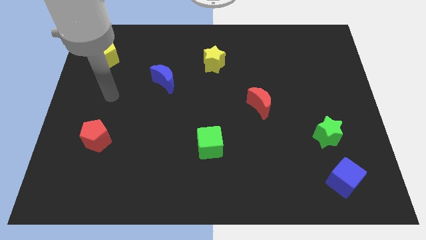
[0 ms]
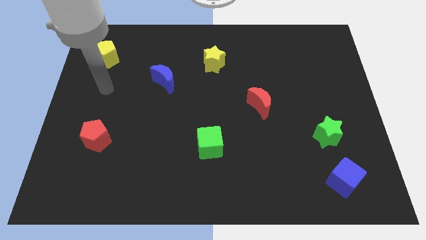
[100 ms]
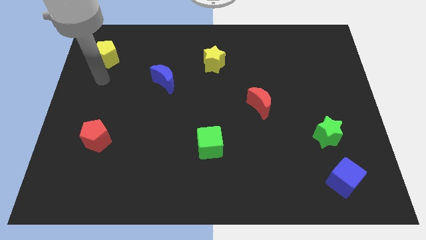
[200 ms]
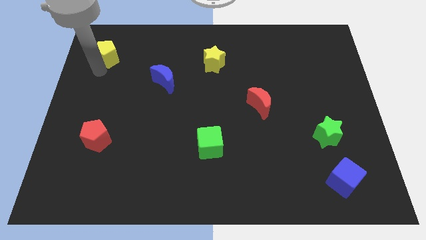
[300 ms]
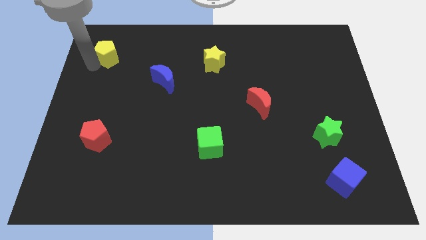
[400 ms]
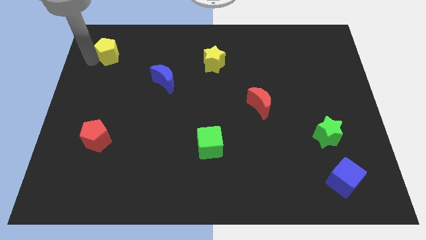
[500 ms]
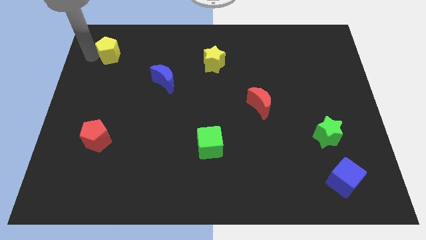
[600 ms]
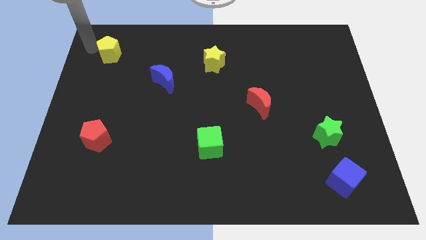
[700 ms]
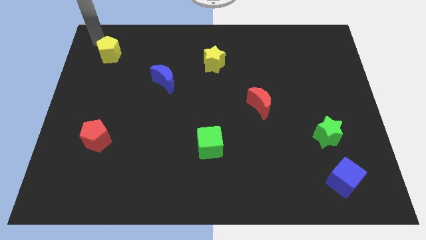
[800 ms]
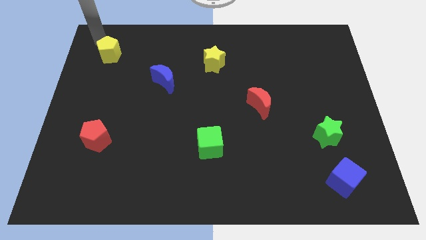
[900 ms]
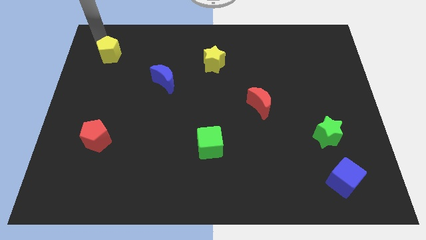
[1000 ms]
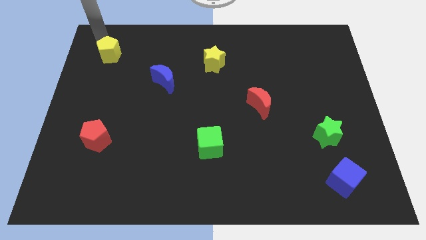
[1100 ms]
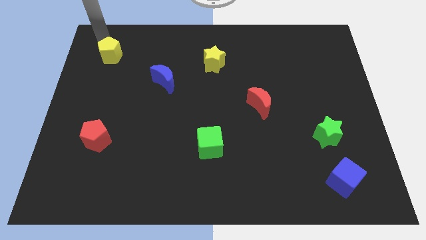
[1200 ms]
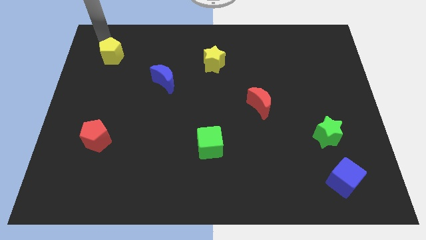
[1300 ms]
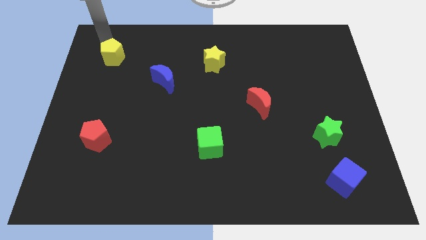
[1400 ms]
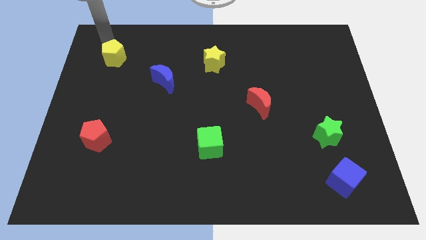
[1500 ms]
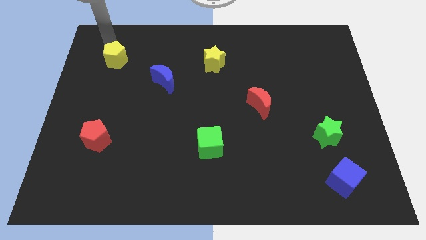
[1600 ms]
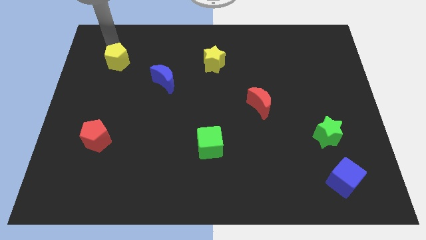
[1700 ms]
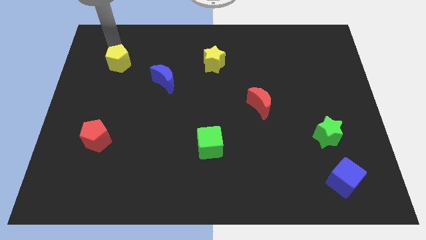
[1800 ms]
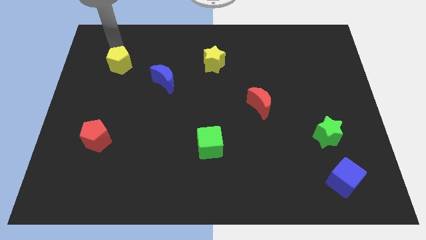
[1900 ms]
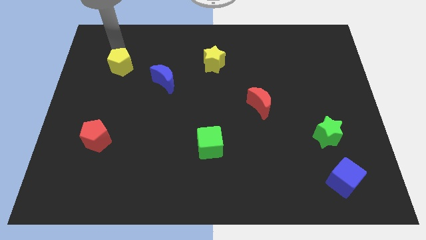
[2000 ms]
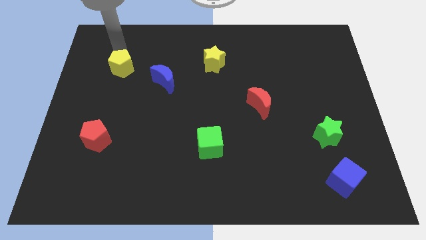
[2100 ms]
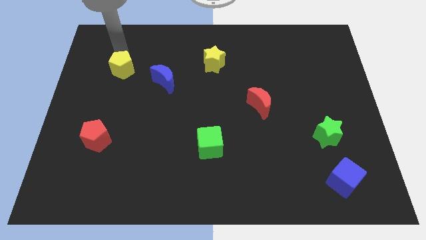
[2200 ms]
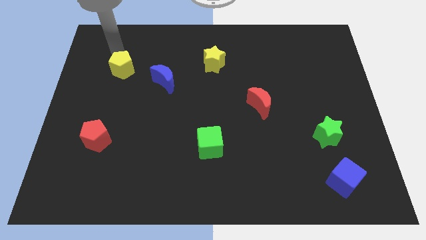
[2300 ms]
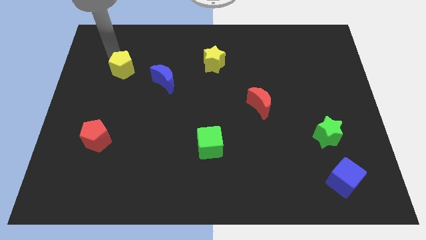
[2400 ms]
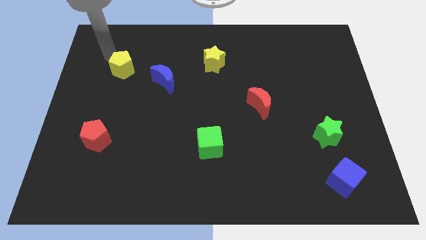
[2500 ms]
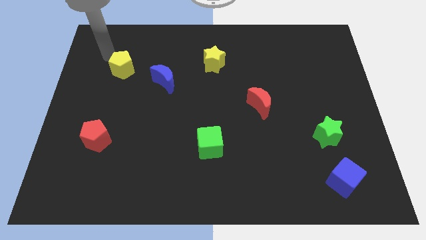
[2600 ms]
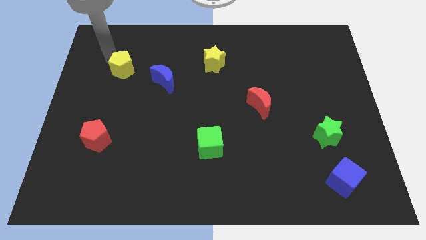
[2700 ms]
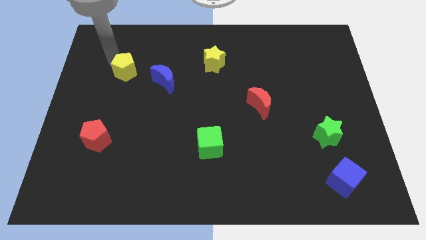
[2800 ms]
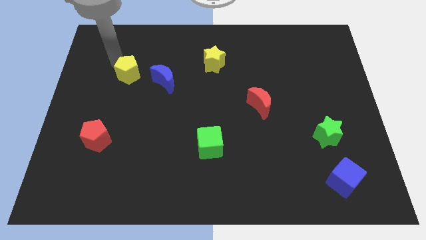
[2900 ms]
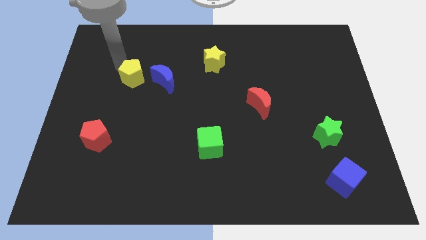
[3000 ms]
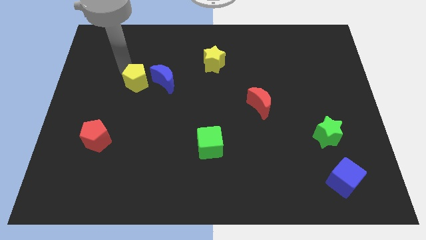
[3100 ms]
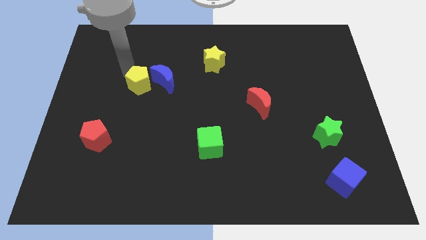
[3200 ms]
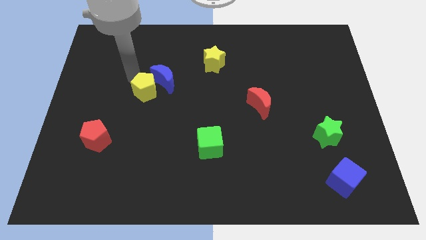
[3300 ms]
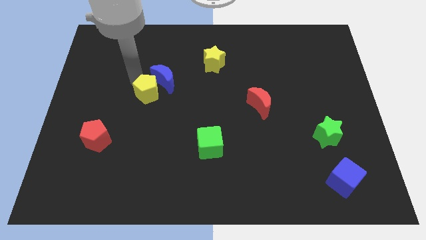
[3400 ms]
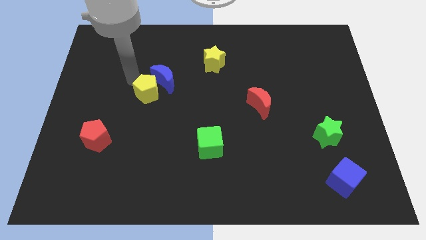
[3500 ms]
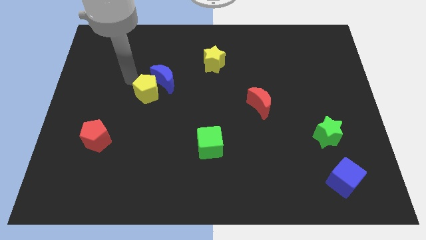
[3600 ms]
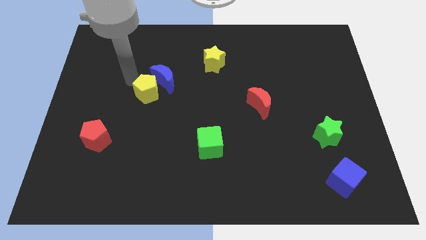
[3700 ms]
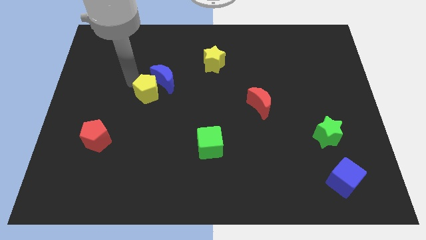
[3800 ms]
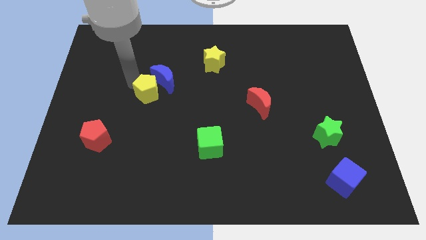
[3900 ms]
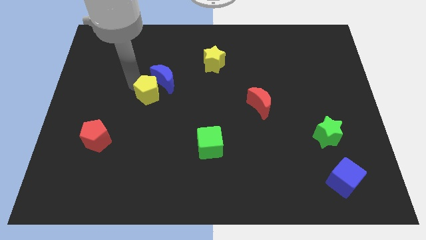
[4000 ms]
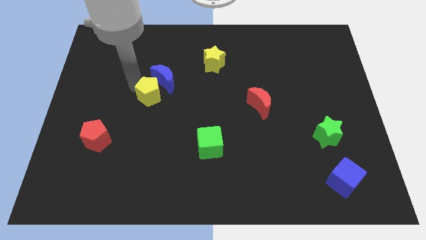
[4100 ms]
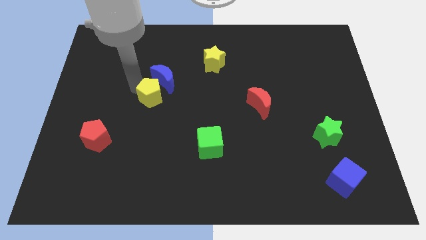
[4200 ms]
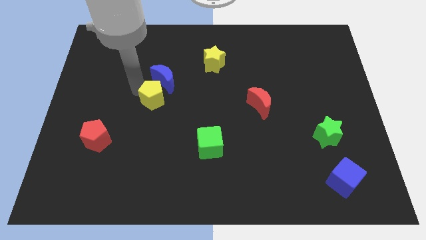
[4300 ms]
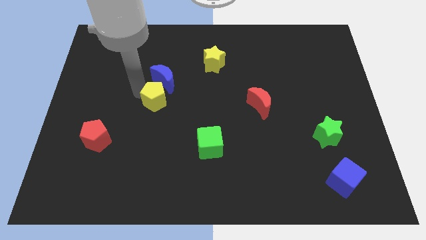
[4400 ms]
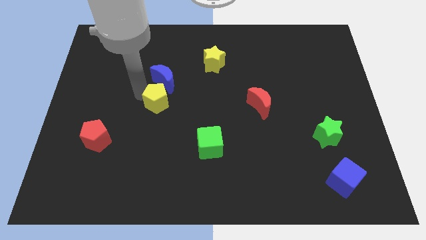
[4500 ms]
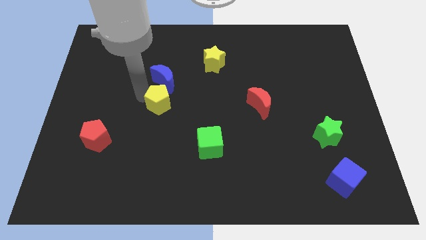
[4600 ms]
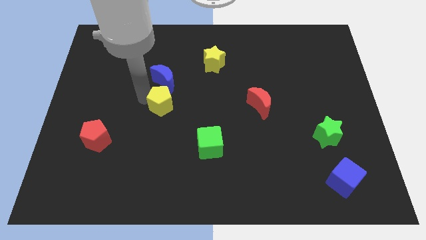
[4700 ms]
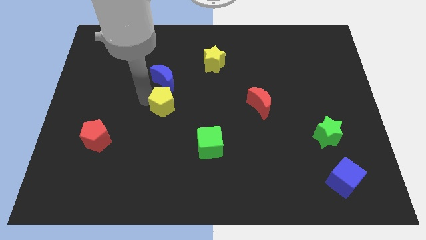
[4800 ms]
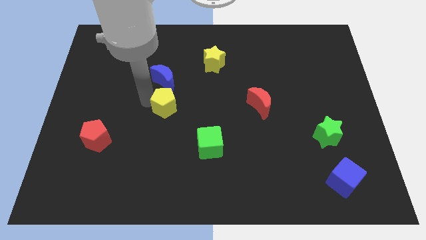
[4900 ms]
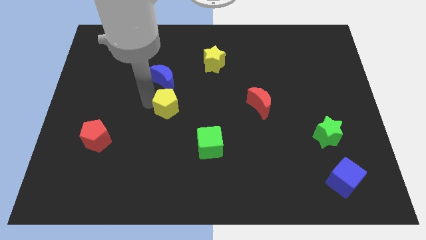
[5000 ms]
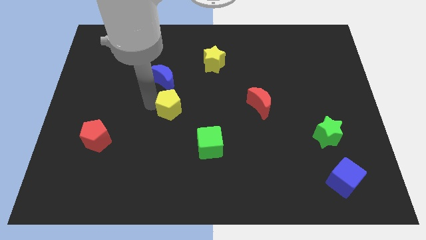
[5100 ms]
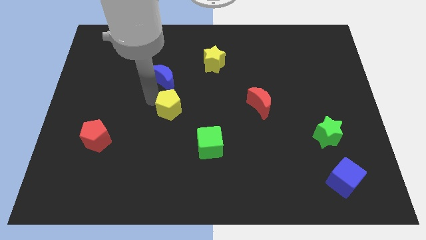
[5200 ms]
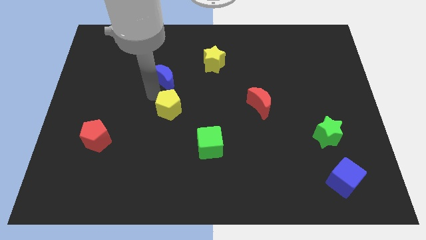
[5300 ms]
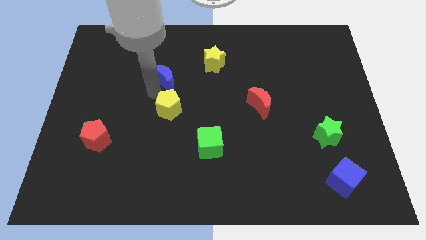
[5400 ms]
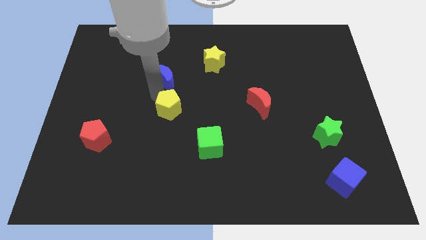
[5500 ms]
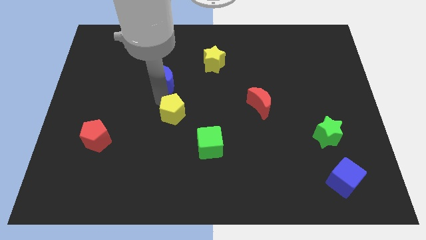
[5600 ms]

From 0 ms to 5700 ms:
put the yellow pentagon to the top left side of the green cube

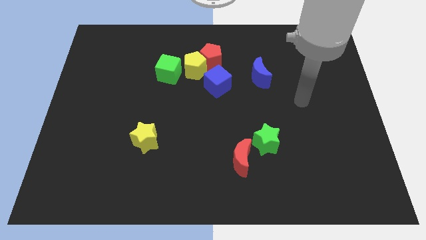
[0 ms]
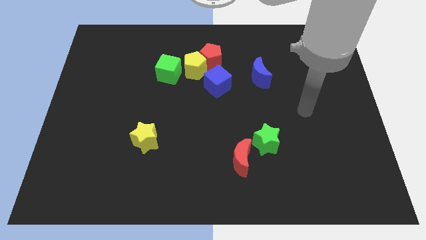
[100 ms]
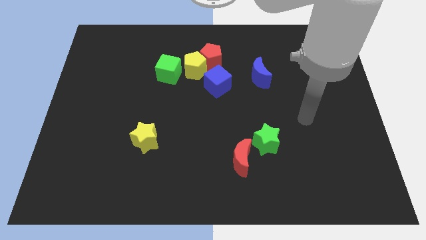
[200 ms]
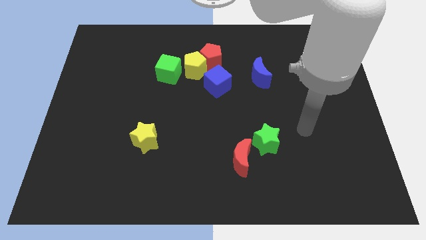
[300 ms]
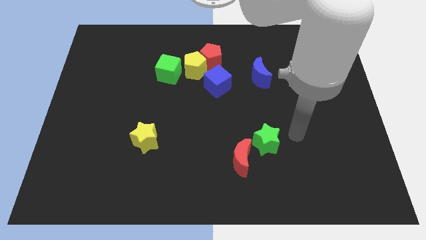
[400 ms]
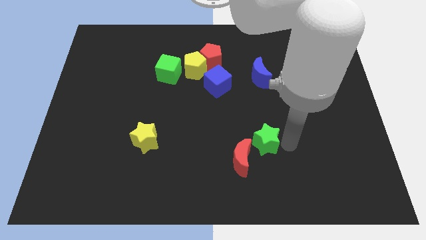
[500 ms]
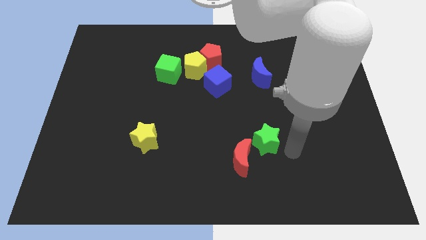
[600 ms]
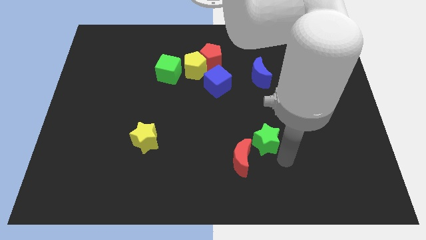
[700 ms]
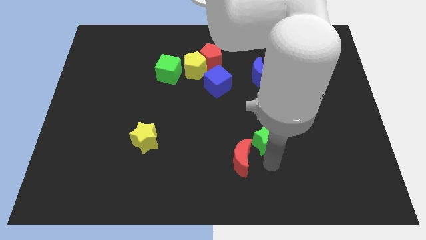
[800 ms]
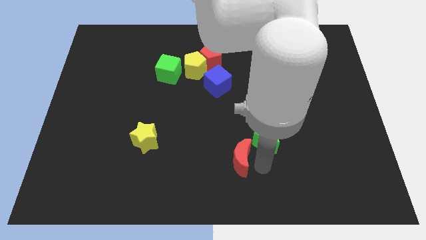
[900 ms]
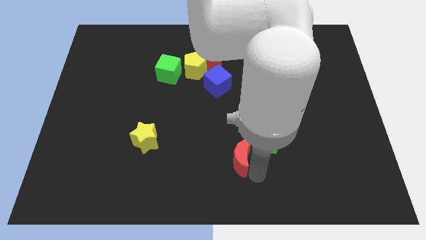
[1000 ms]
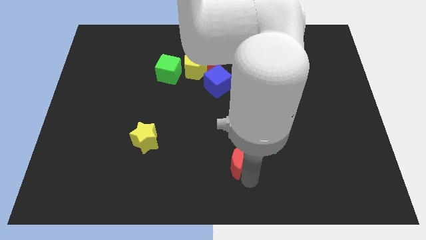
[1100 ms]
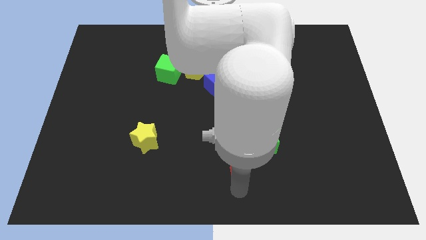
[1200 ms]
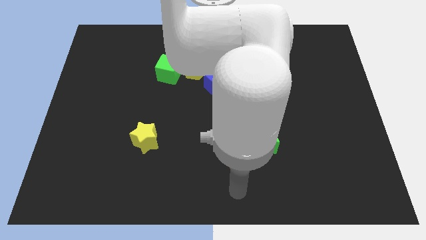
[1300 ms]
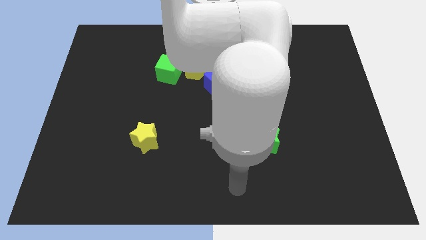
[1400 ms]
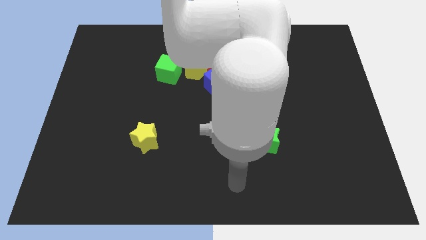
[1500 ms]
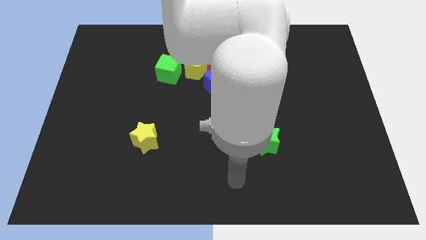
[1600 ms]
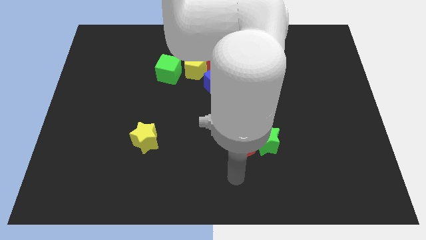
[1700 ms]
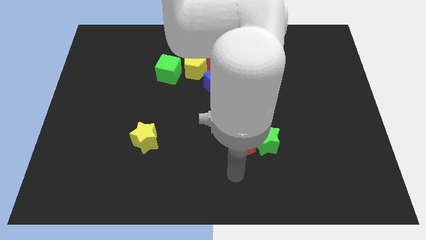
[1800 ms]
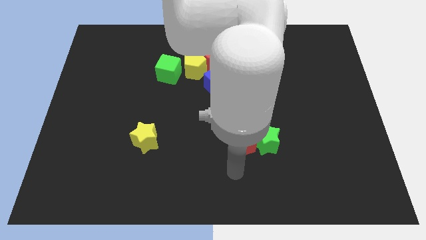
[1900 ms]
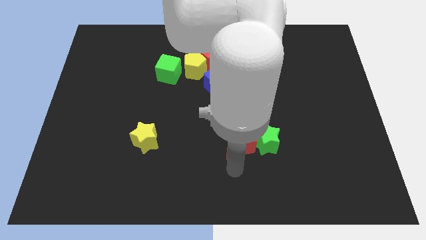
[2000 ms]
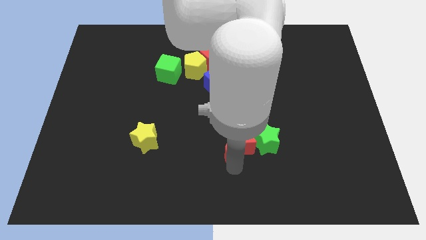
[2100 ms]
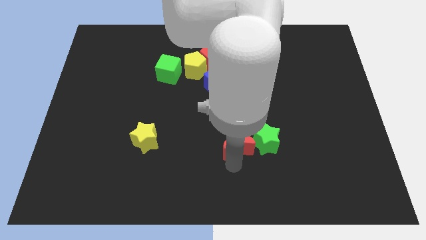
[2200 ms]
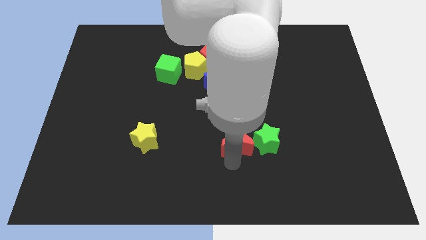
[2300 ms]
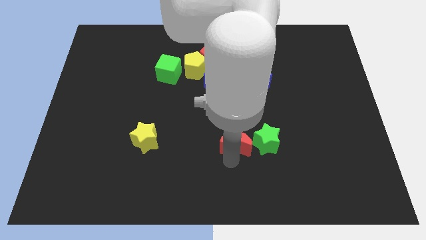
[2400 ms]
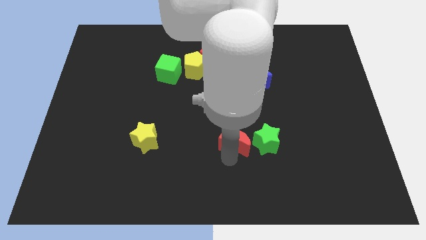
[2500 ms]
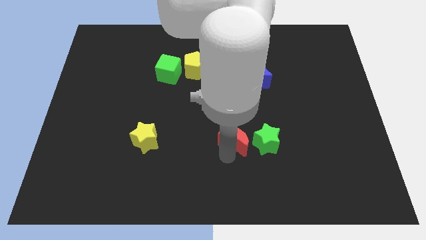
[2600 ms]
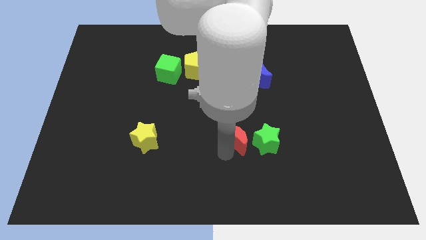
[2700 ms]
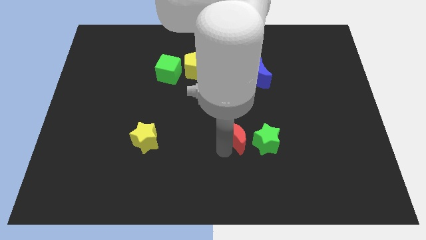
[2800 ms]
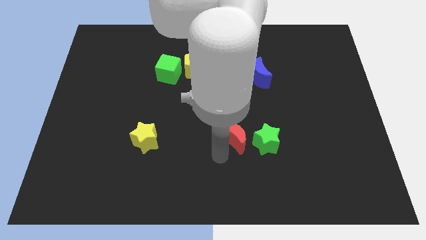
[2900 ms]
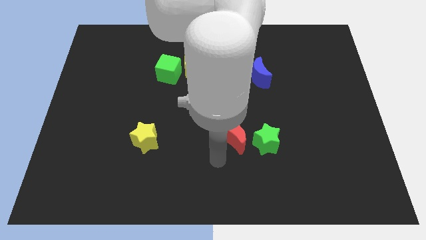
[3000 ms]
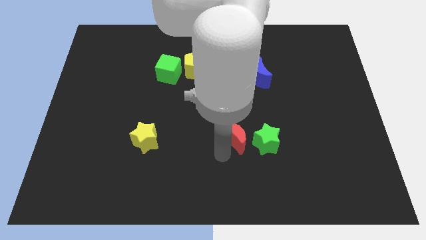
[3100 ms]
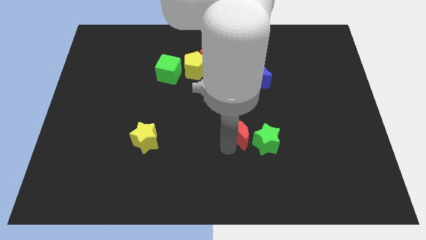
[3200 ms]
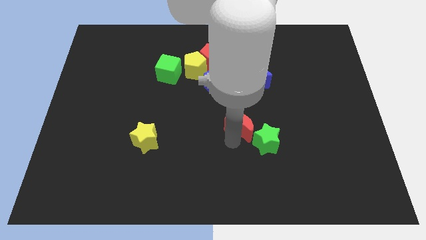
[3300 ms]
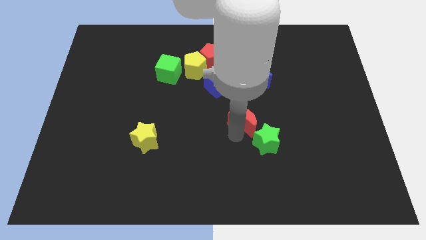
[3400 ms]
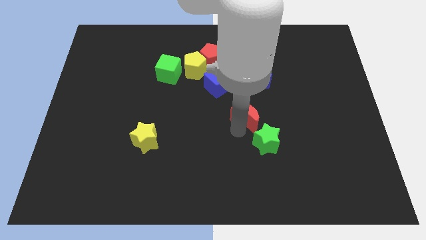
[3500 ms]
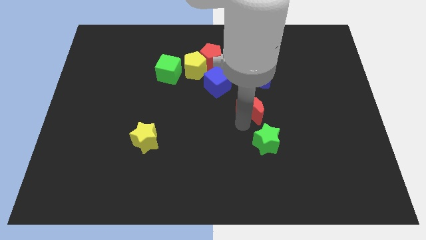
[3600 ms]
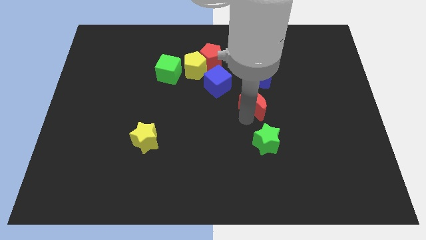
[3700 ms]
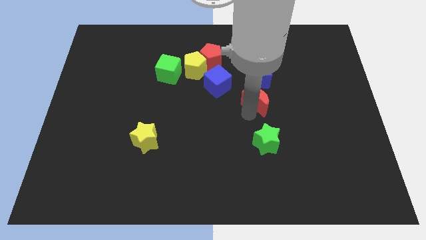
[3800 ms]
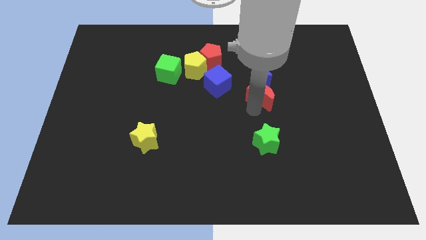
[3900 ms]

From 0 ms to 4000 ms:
move the red moon to the right of the blue cube
